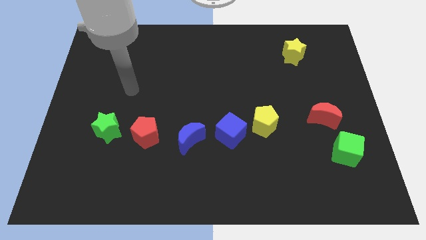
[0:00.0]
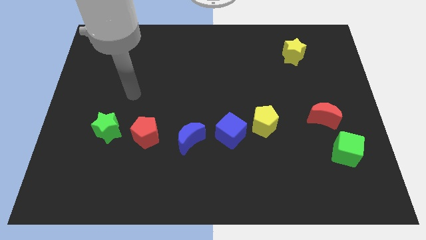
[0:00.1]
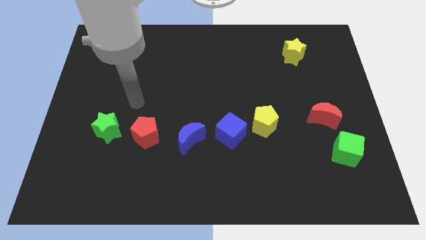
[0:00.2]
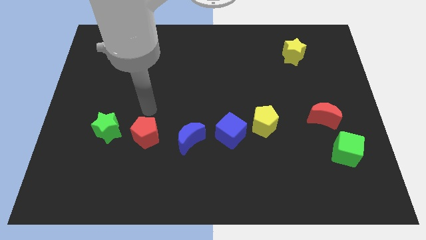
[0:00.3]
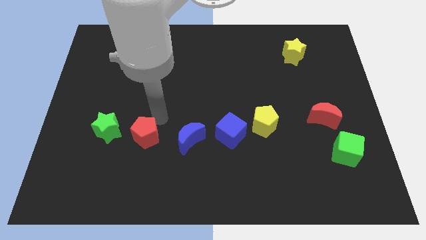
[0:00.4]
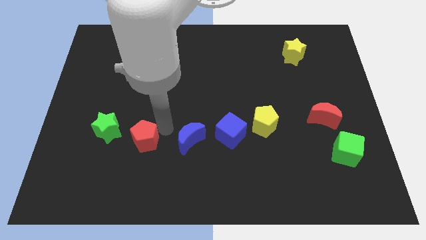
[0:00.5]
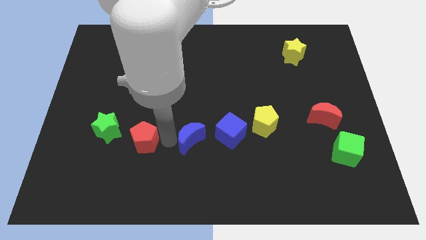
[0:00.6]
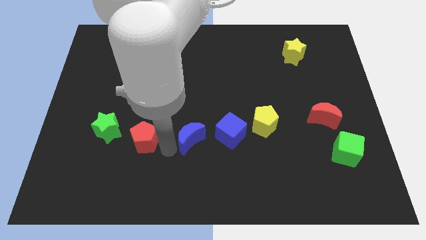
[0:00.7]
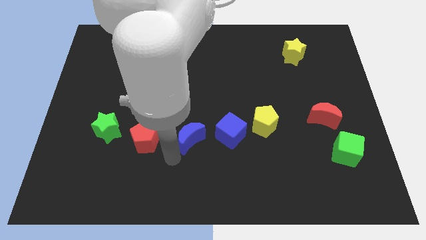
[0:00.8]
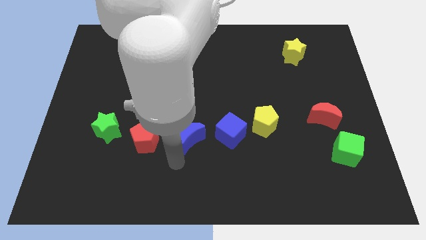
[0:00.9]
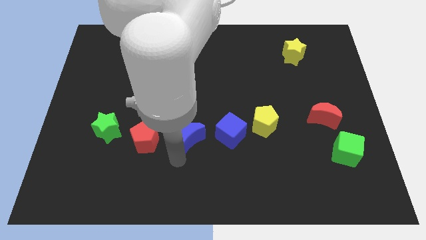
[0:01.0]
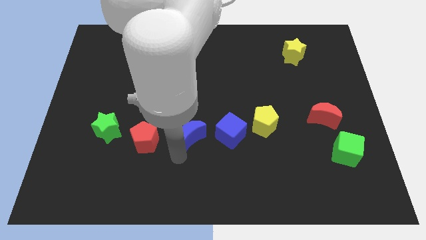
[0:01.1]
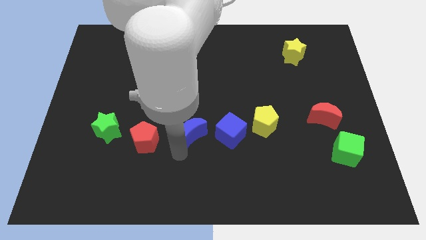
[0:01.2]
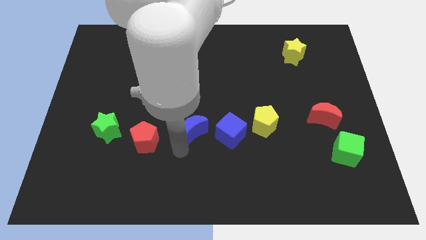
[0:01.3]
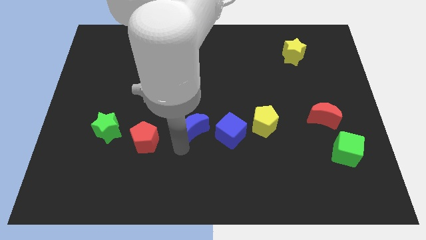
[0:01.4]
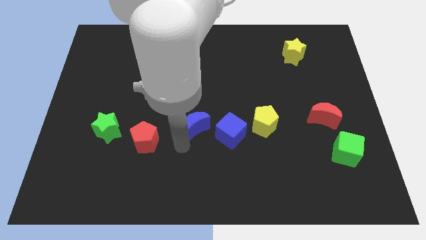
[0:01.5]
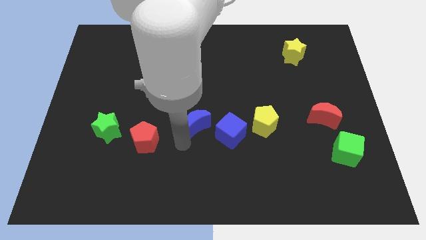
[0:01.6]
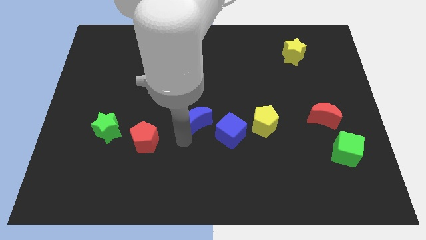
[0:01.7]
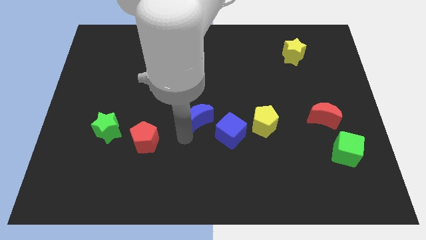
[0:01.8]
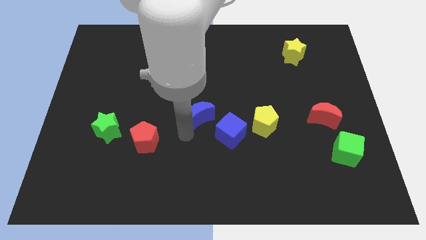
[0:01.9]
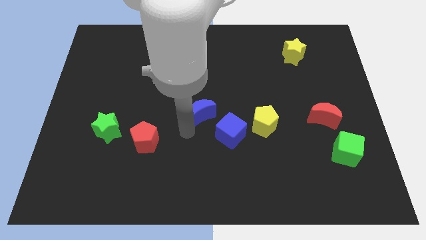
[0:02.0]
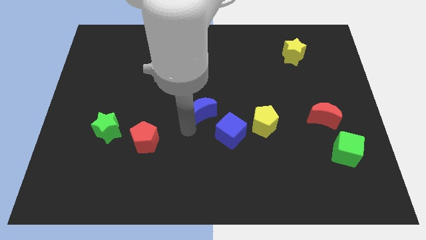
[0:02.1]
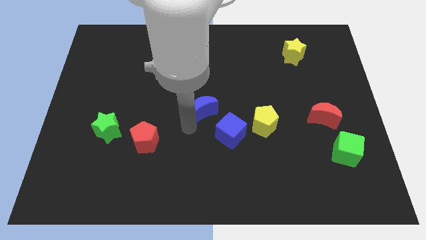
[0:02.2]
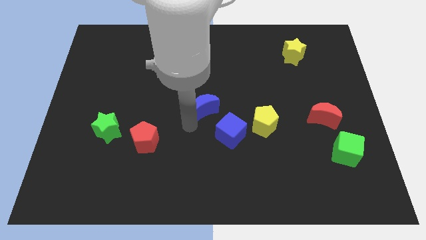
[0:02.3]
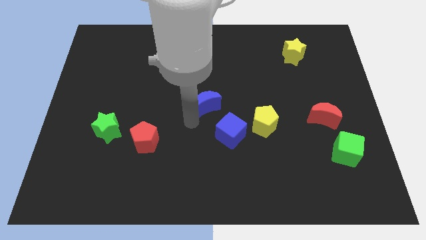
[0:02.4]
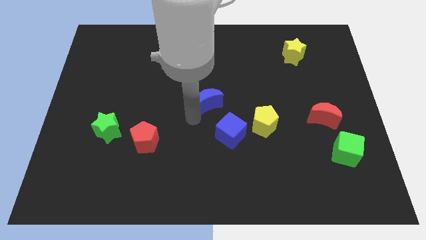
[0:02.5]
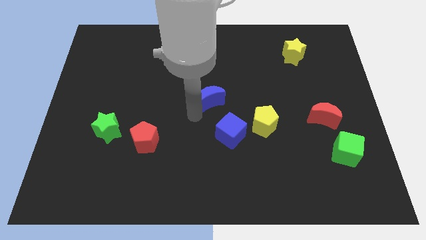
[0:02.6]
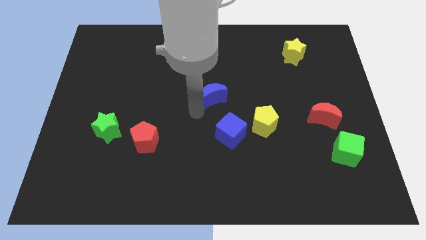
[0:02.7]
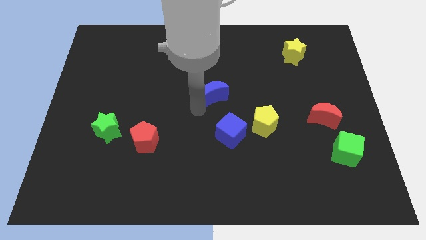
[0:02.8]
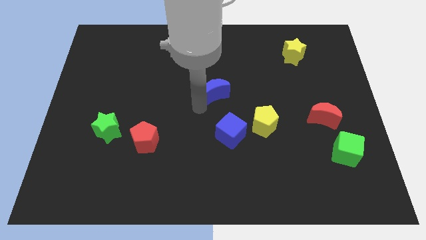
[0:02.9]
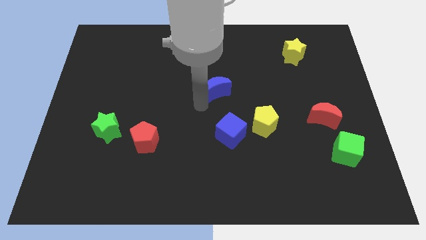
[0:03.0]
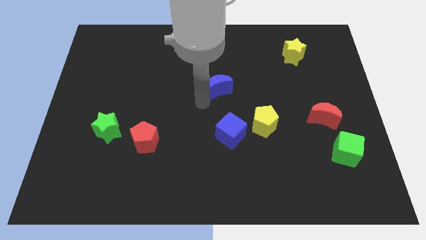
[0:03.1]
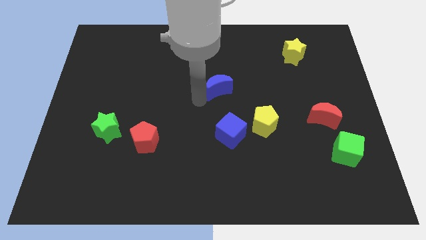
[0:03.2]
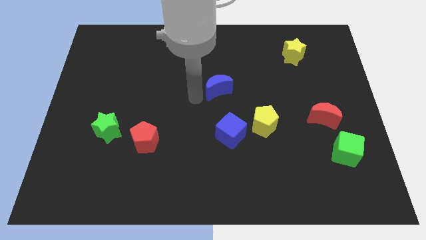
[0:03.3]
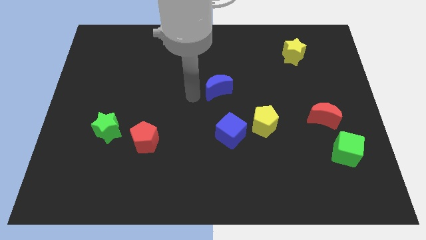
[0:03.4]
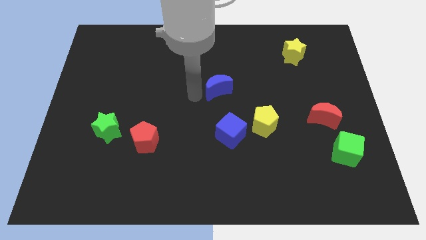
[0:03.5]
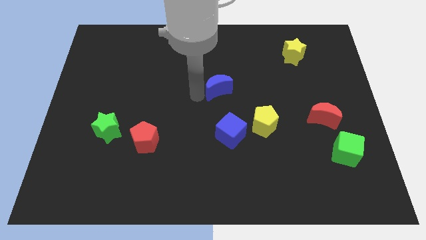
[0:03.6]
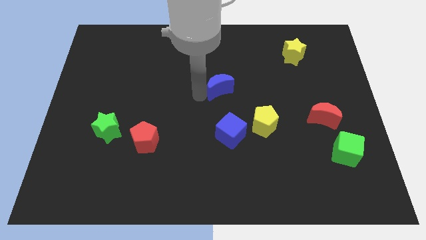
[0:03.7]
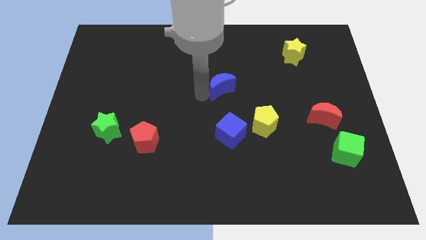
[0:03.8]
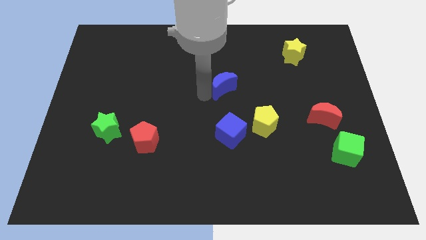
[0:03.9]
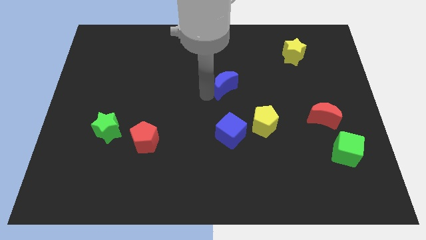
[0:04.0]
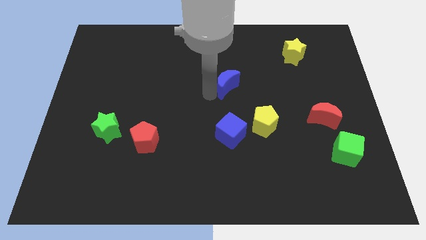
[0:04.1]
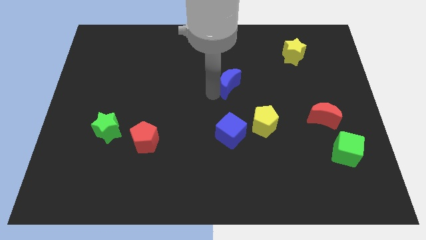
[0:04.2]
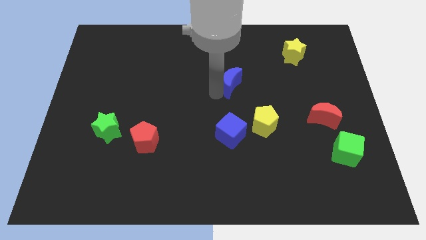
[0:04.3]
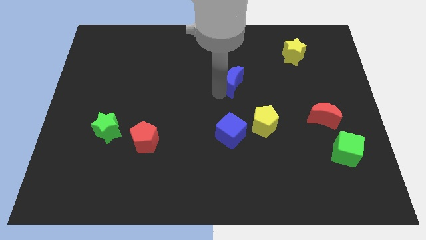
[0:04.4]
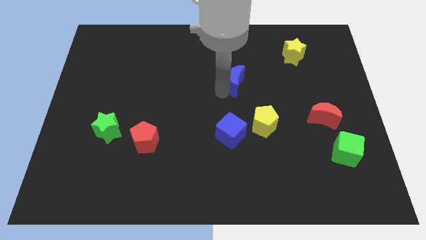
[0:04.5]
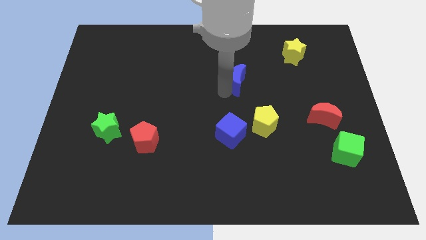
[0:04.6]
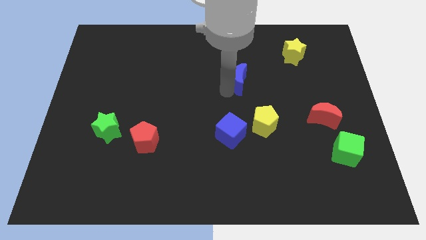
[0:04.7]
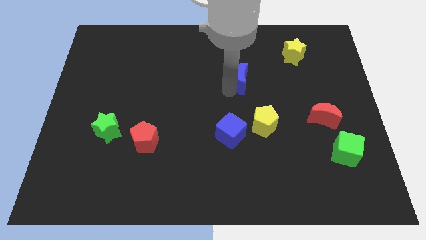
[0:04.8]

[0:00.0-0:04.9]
slide the blue moon up and then right

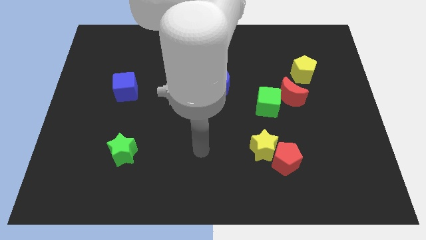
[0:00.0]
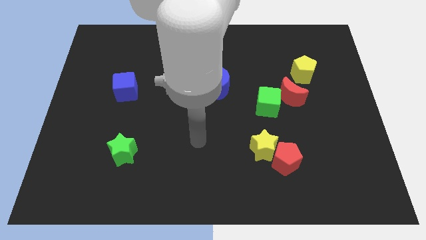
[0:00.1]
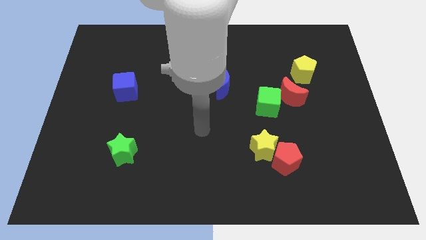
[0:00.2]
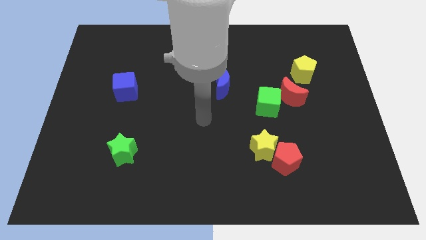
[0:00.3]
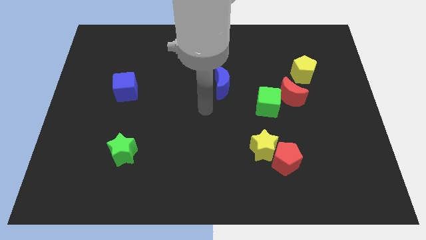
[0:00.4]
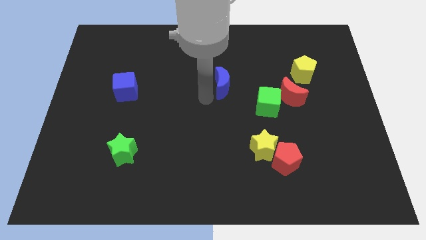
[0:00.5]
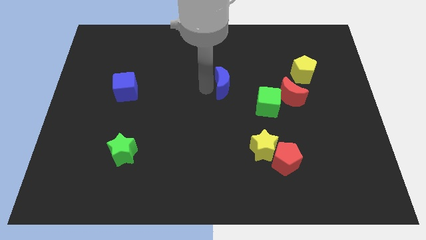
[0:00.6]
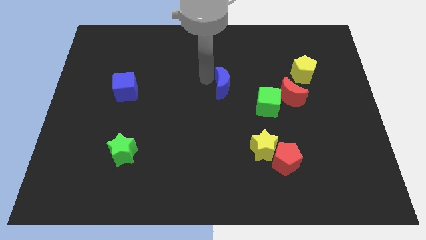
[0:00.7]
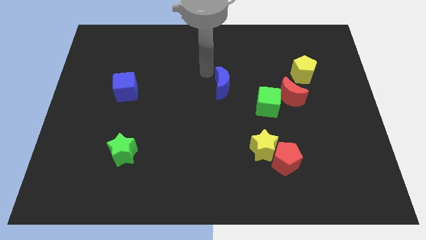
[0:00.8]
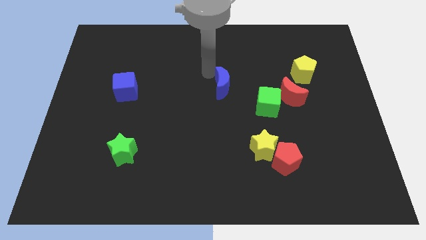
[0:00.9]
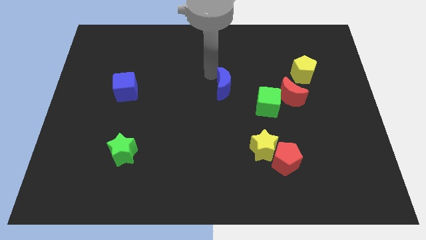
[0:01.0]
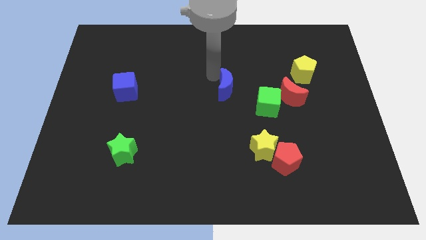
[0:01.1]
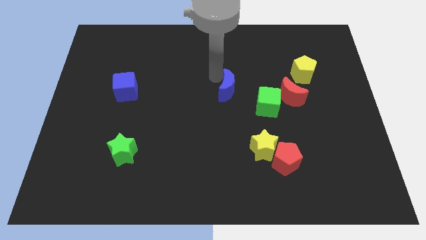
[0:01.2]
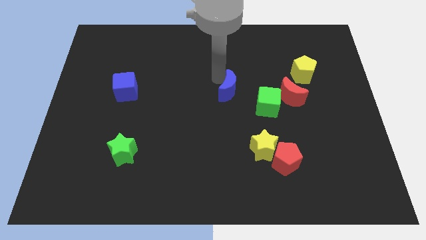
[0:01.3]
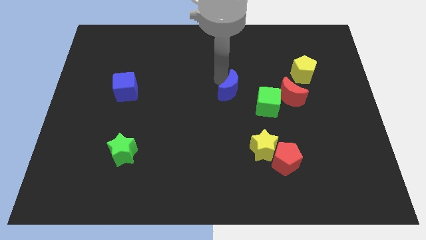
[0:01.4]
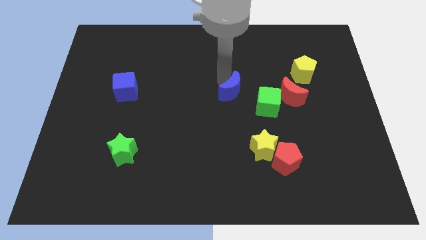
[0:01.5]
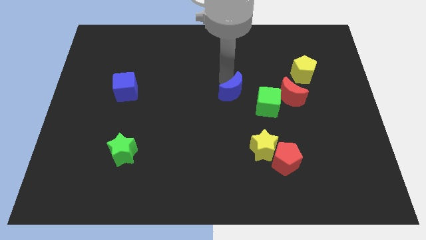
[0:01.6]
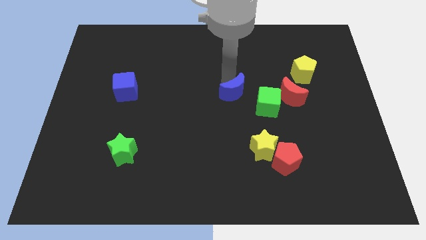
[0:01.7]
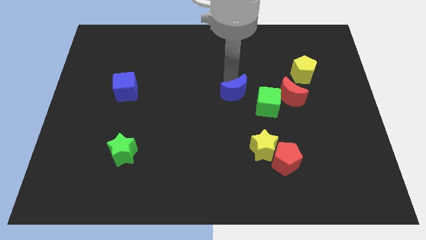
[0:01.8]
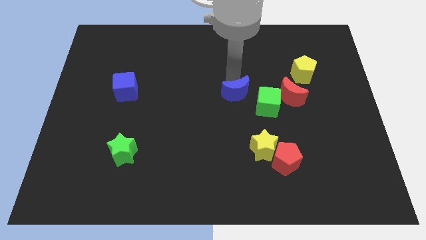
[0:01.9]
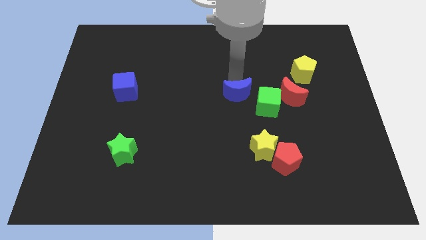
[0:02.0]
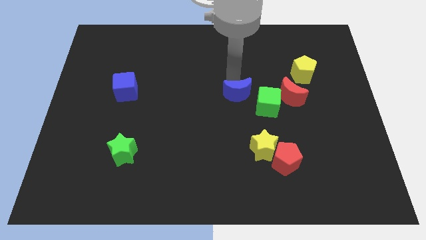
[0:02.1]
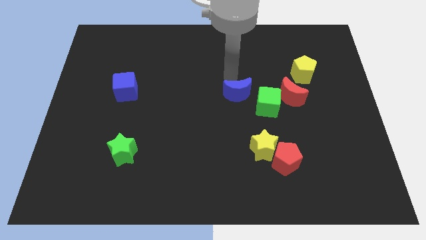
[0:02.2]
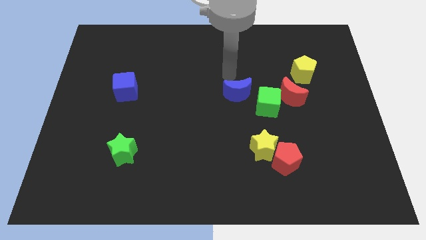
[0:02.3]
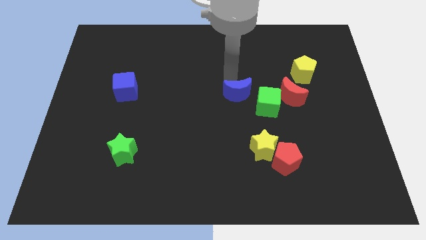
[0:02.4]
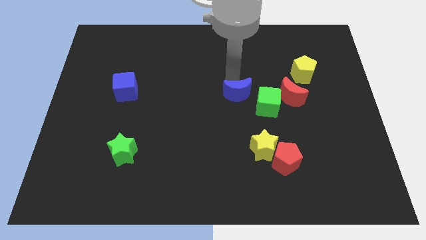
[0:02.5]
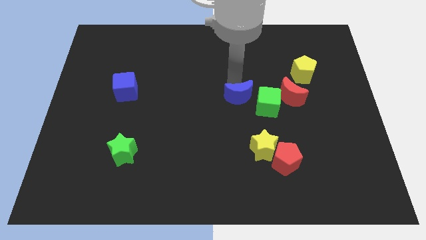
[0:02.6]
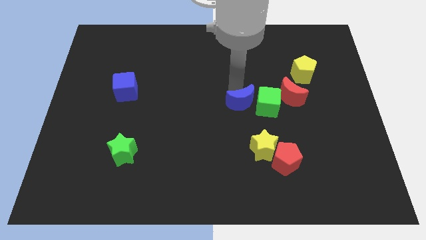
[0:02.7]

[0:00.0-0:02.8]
move the blue moon down and then right a little
